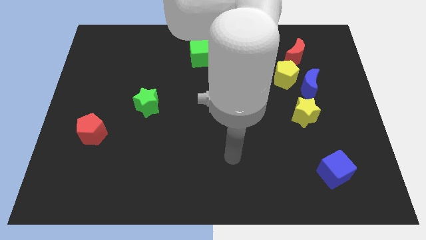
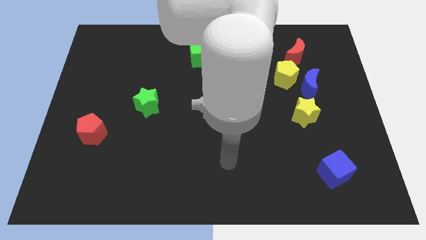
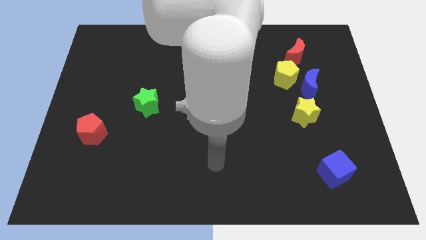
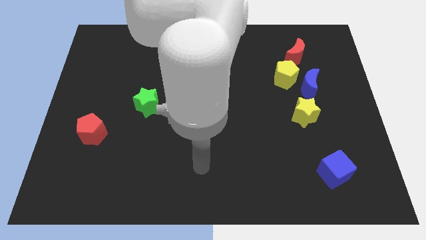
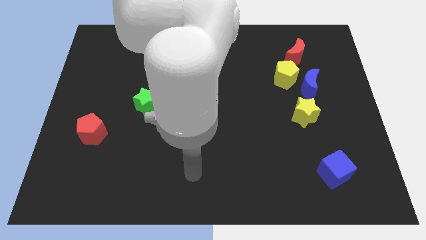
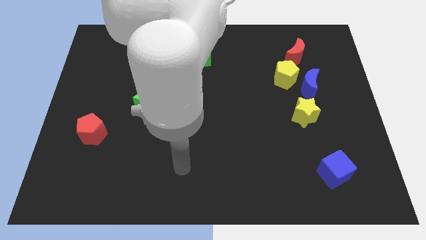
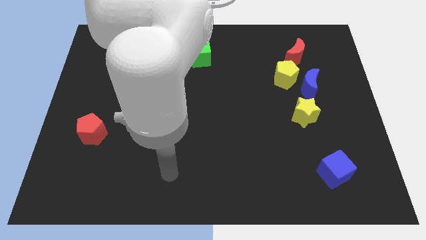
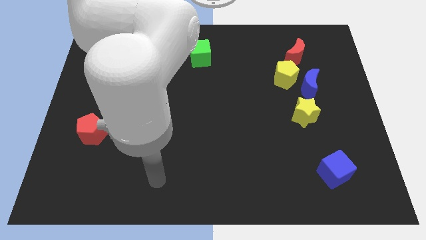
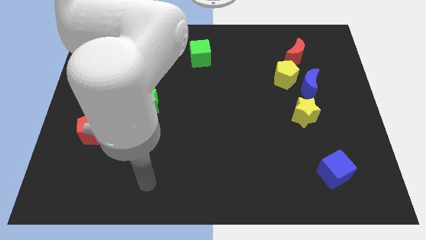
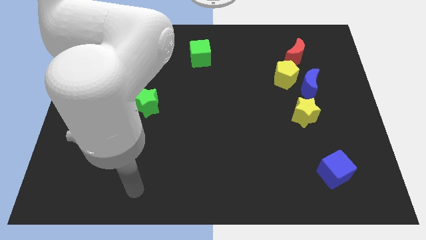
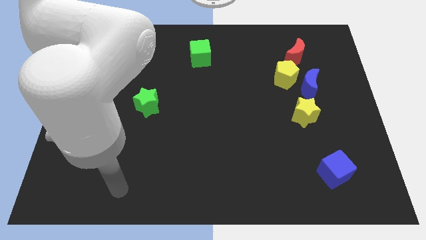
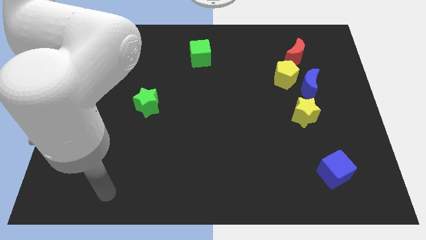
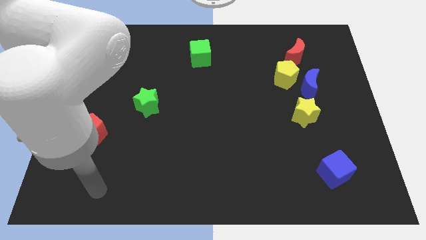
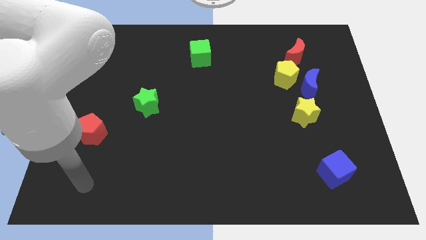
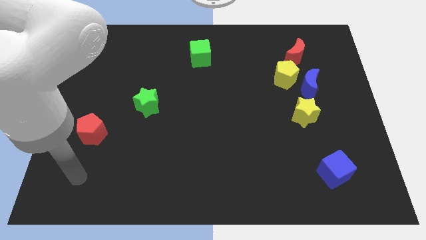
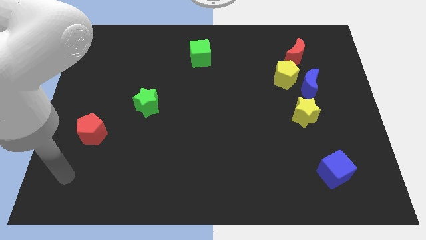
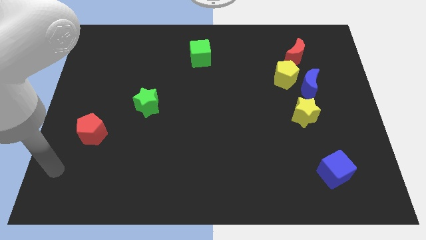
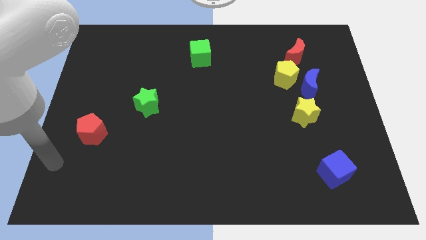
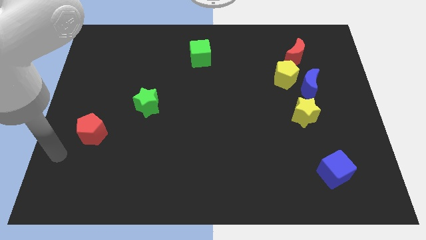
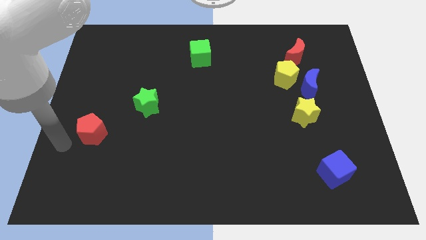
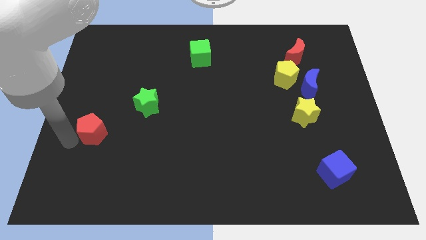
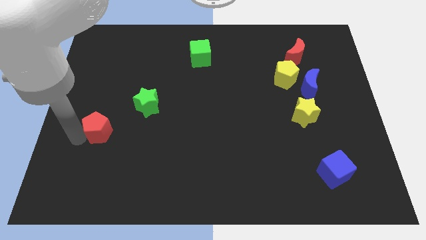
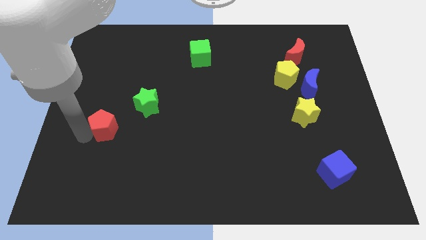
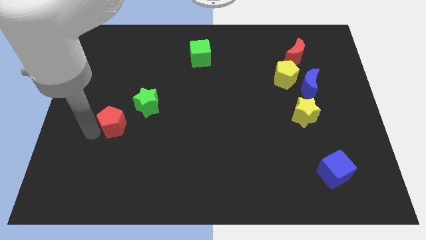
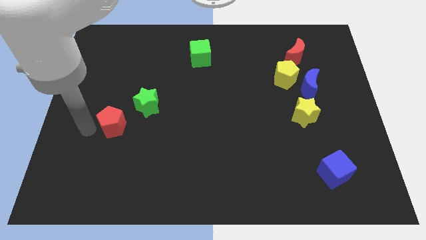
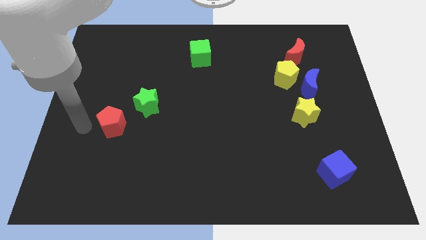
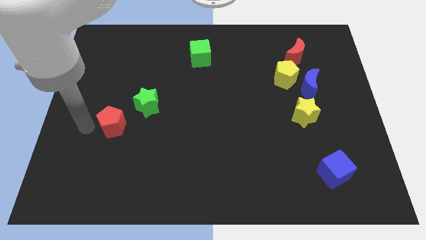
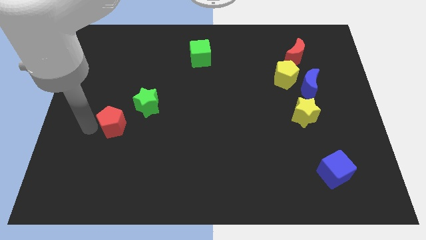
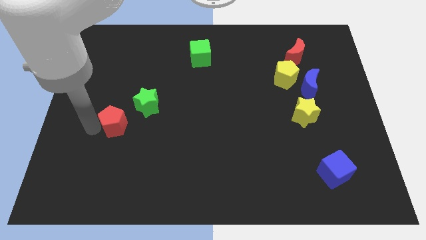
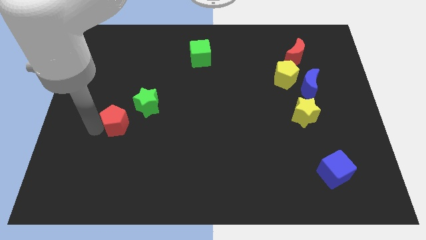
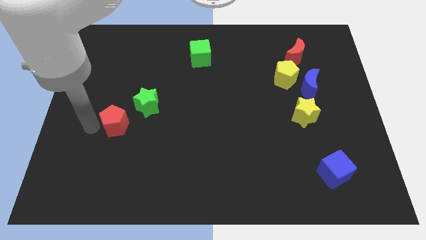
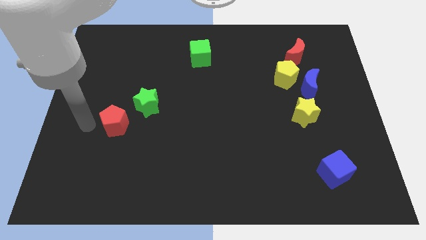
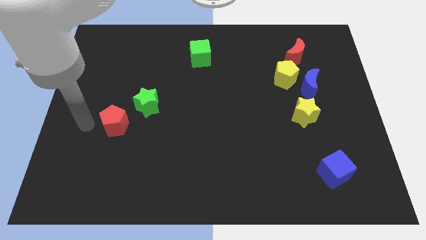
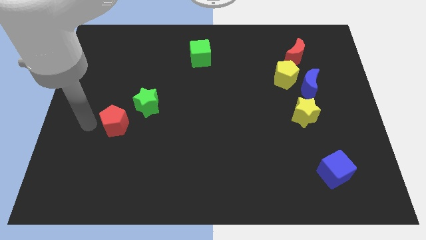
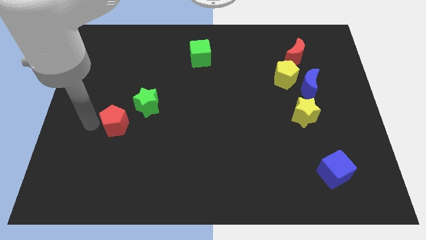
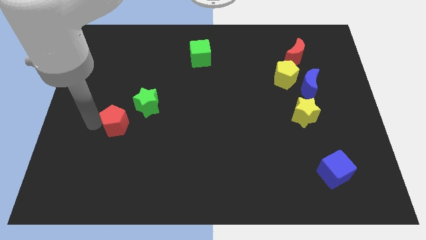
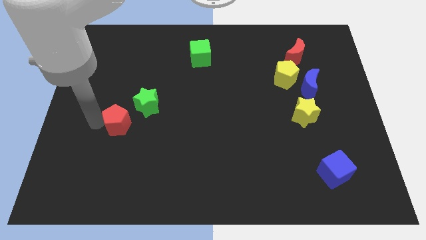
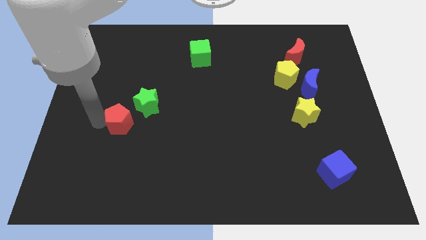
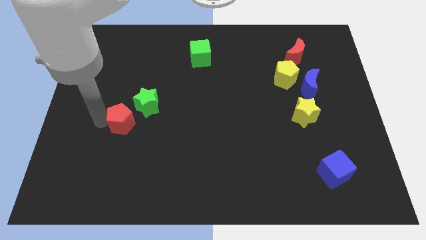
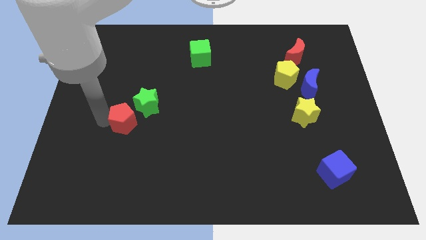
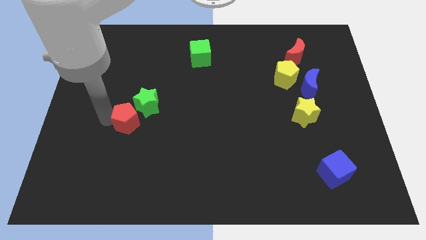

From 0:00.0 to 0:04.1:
move the red pentagon to the right slightly

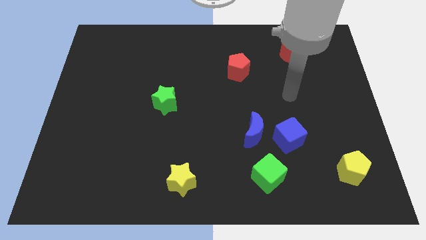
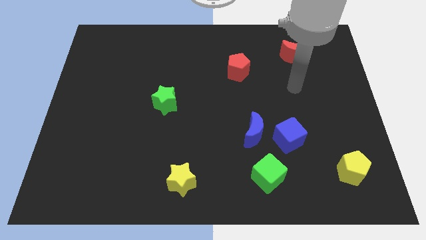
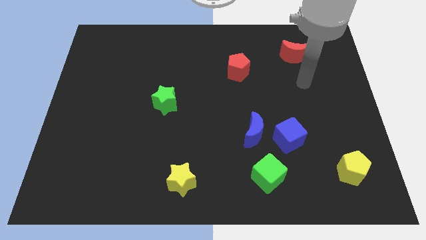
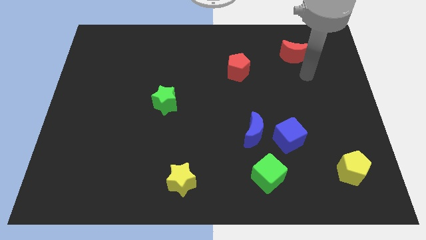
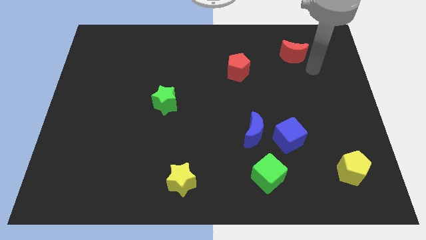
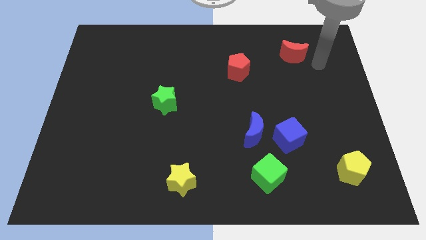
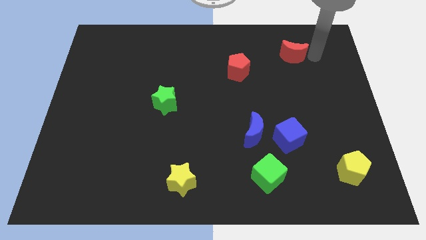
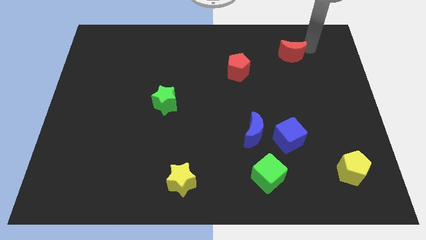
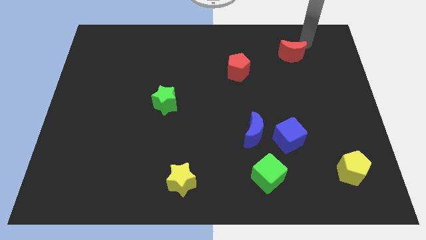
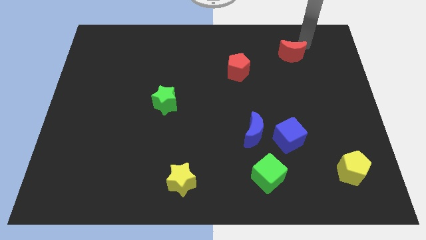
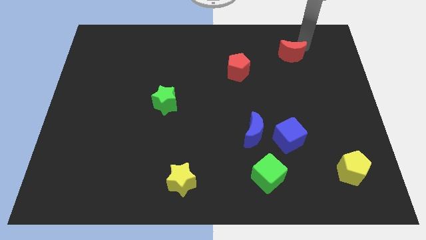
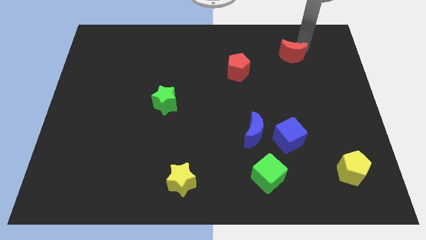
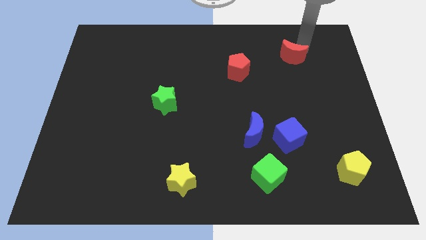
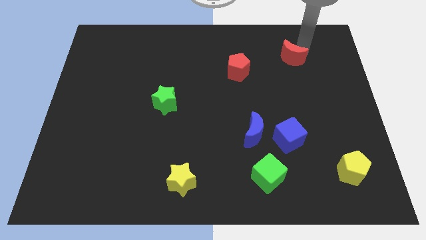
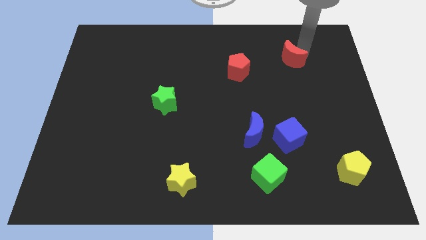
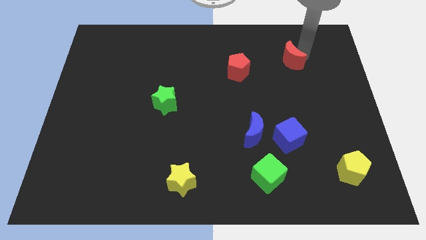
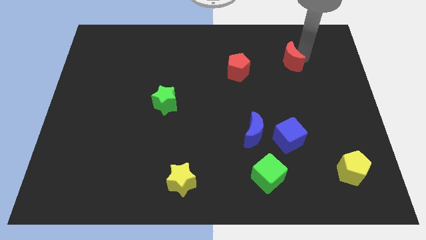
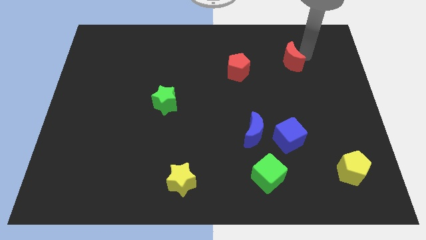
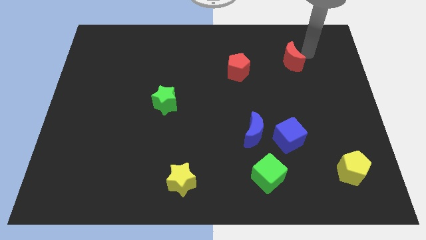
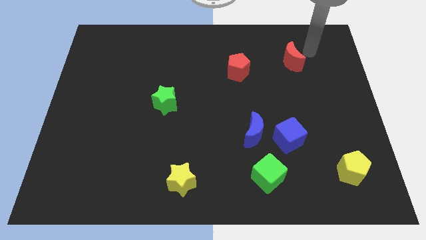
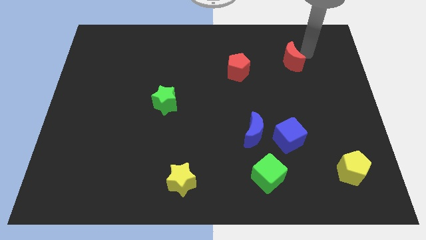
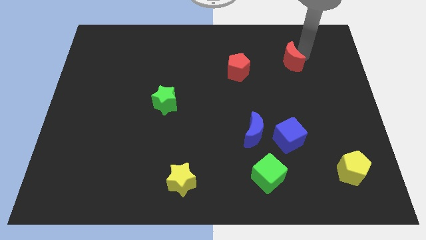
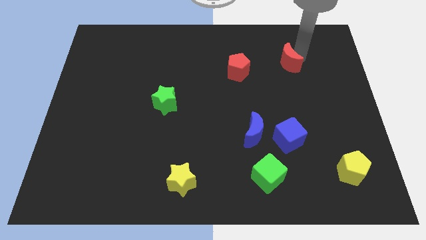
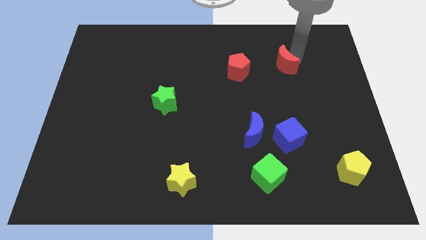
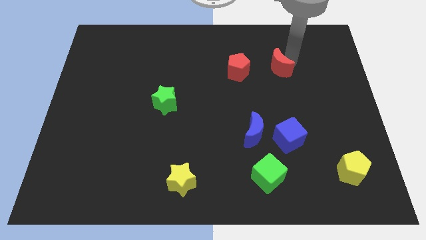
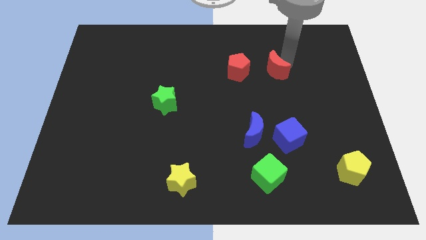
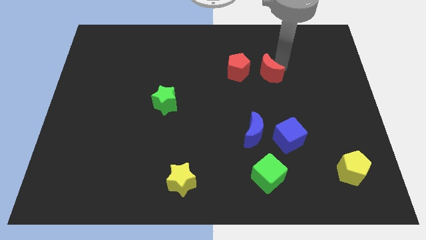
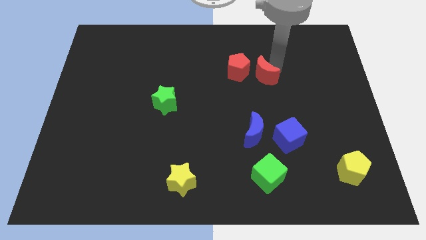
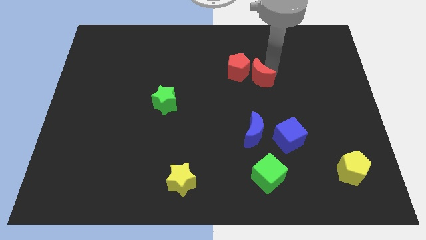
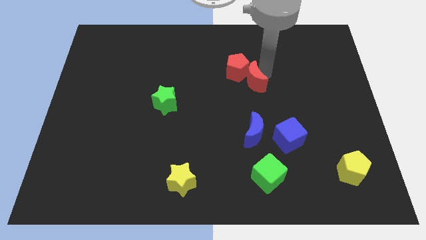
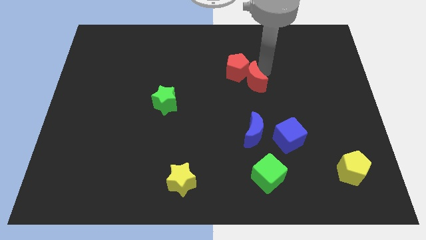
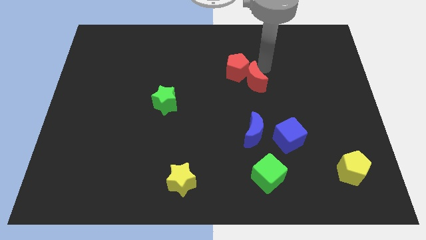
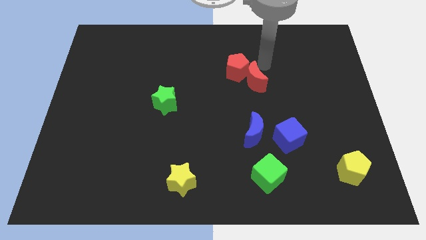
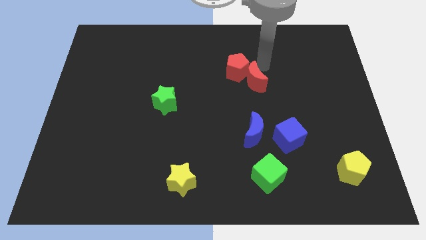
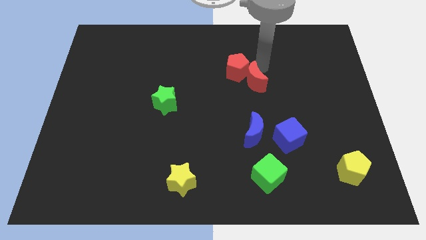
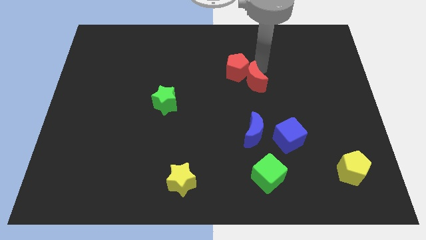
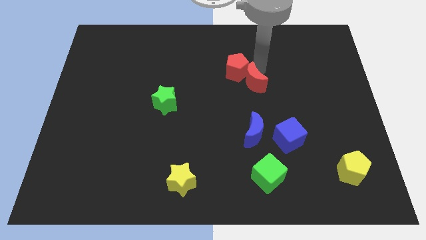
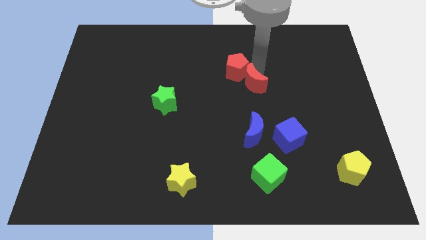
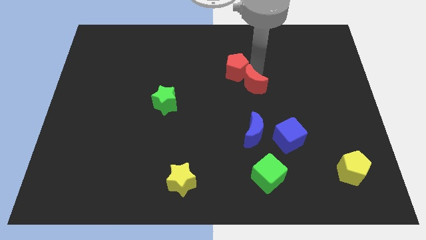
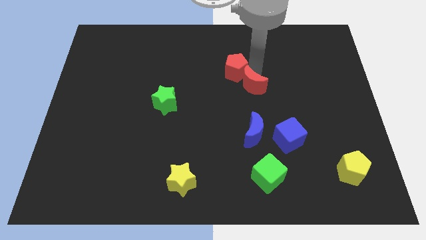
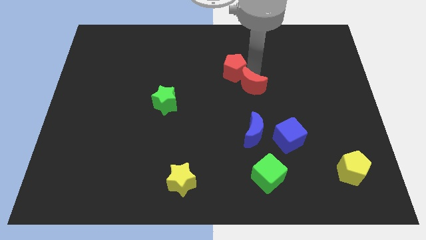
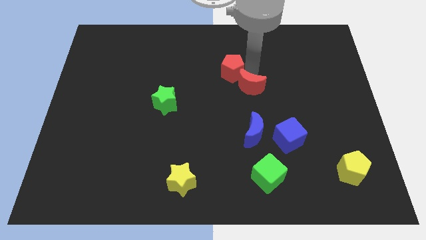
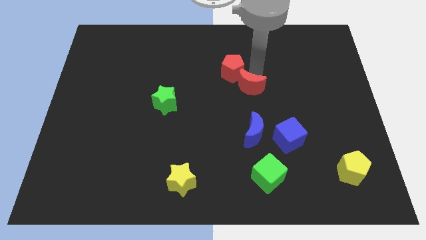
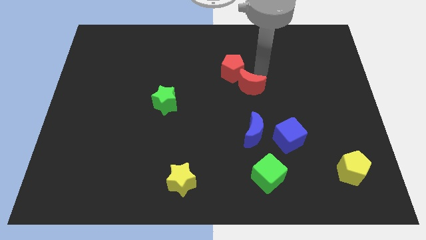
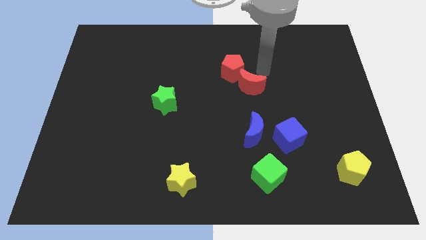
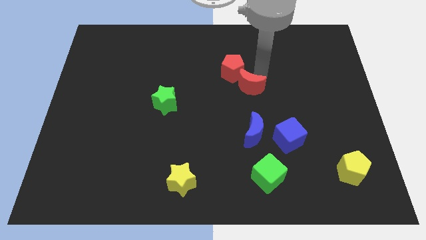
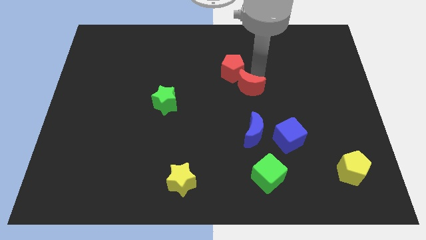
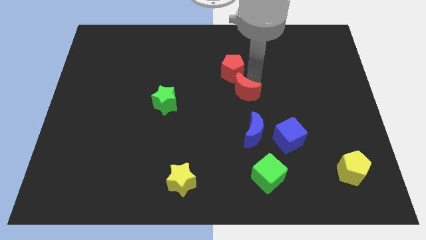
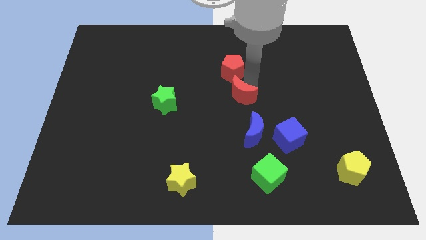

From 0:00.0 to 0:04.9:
slide the red moon downwards and left diagonally
